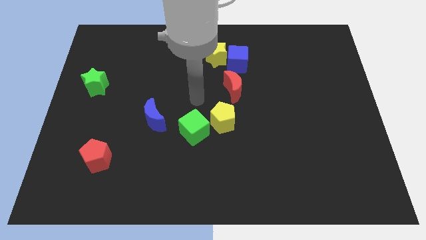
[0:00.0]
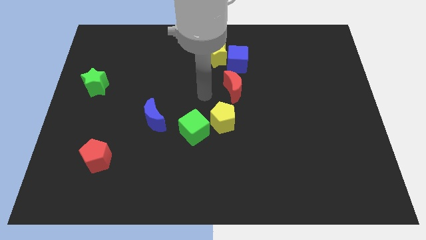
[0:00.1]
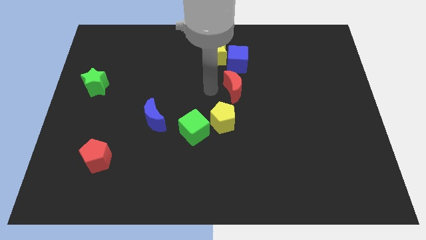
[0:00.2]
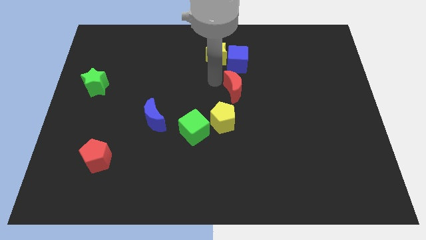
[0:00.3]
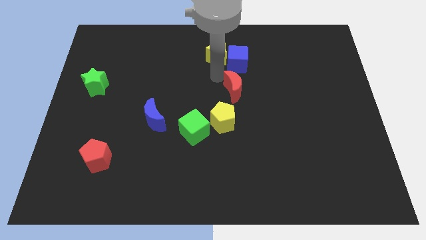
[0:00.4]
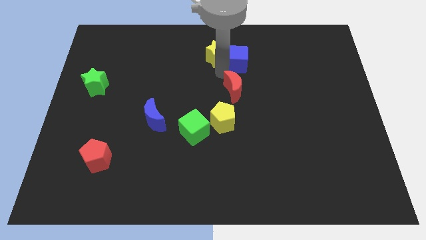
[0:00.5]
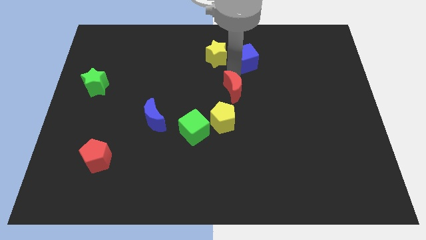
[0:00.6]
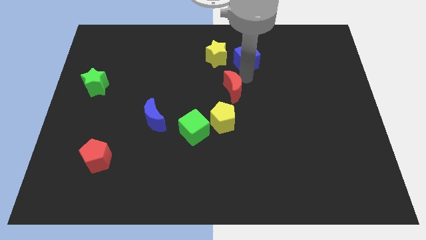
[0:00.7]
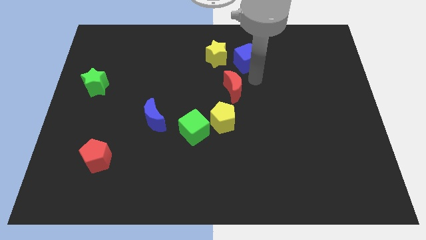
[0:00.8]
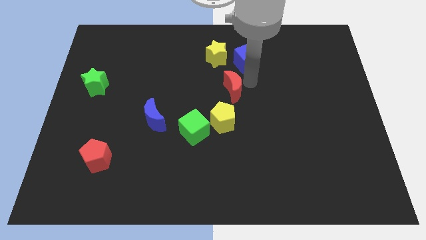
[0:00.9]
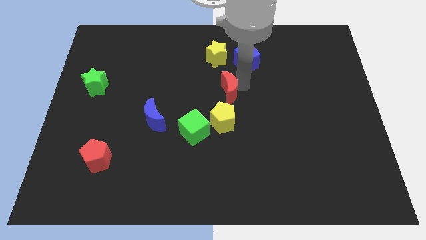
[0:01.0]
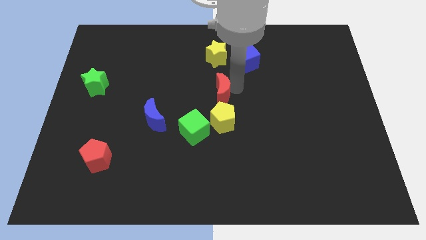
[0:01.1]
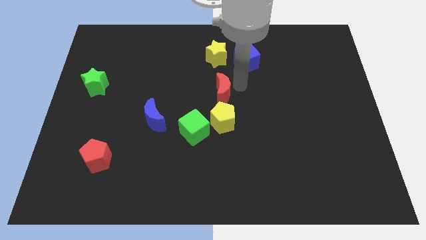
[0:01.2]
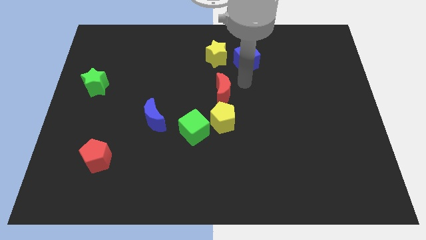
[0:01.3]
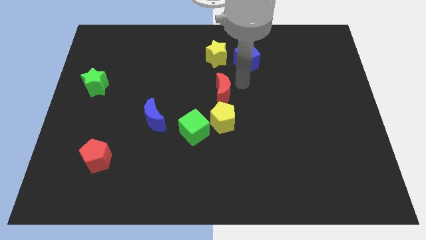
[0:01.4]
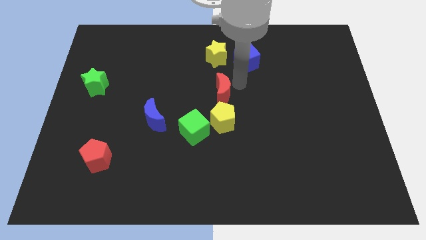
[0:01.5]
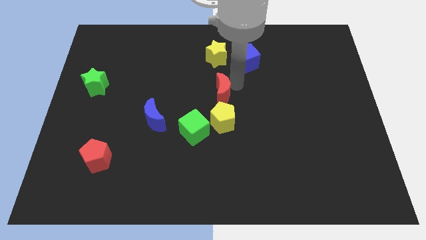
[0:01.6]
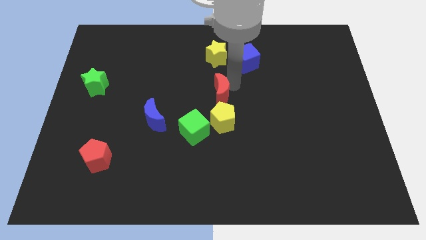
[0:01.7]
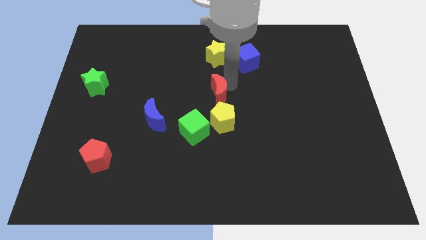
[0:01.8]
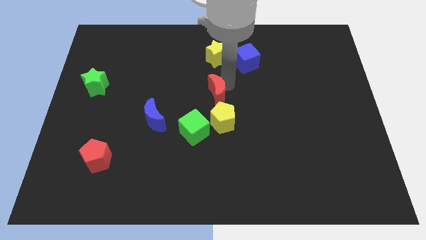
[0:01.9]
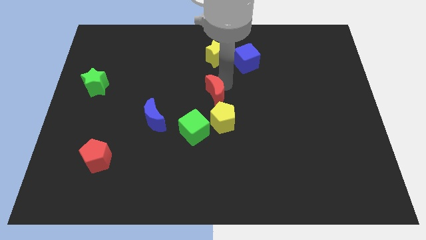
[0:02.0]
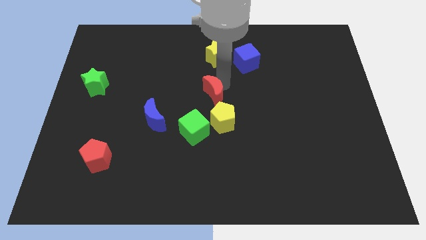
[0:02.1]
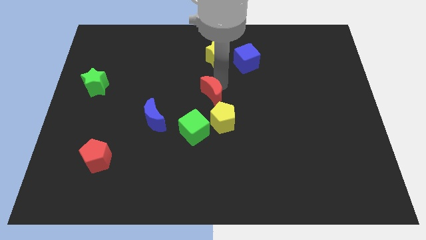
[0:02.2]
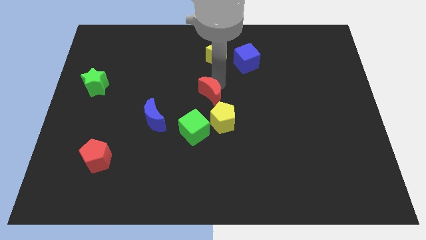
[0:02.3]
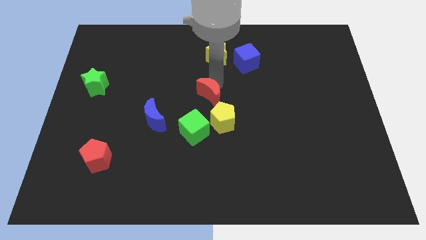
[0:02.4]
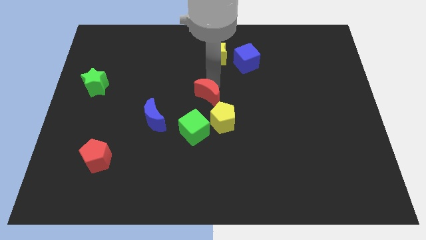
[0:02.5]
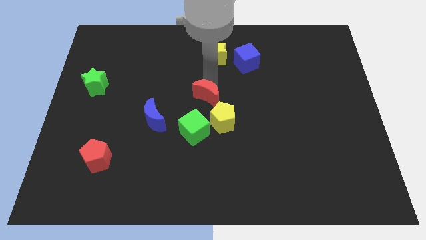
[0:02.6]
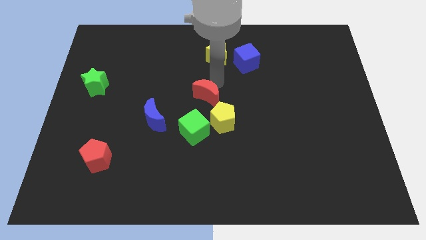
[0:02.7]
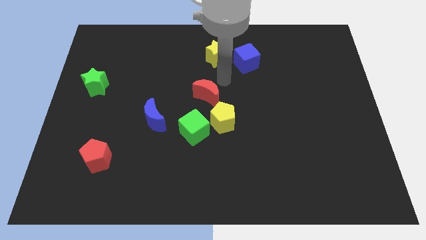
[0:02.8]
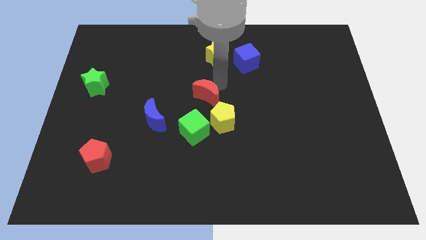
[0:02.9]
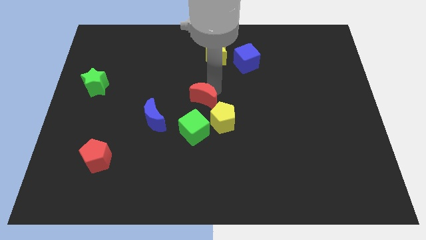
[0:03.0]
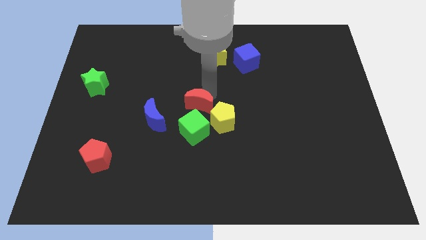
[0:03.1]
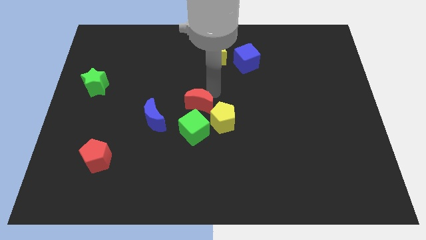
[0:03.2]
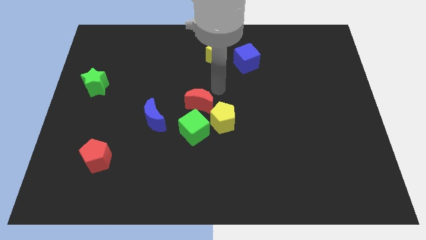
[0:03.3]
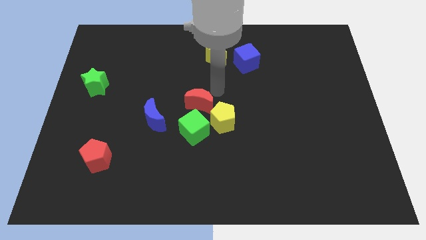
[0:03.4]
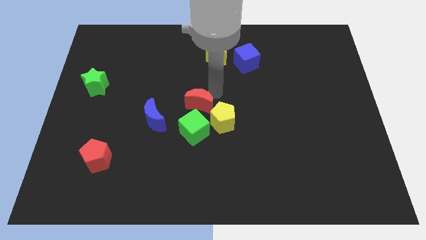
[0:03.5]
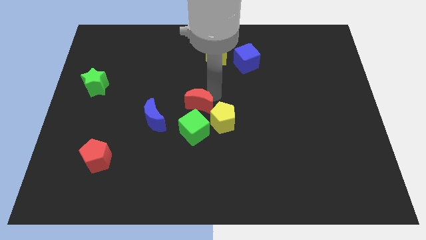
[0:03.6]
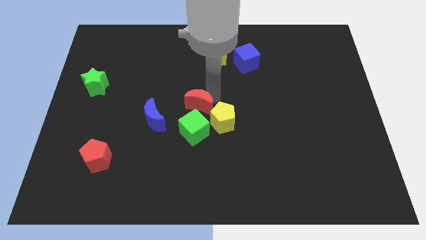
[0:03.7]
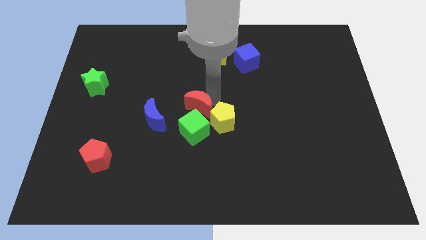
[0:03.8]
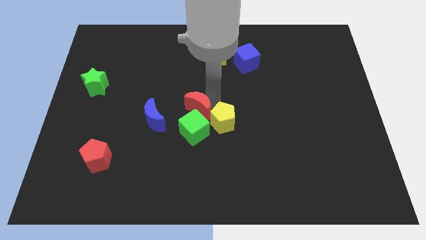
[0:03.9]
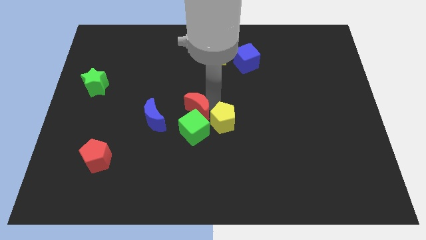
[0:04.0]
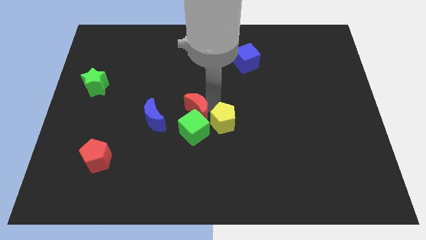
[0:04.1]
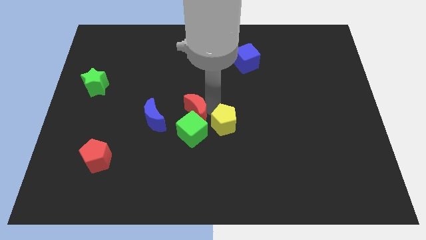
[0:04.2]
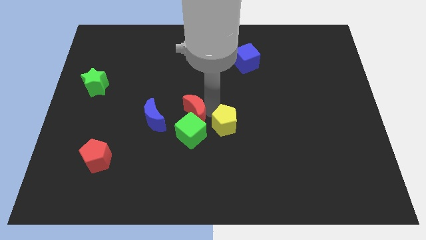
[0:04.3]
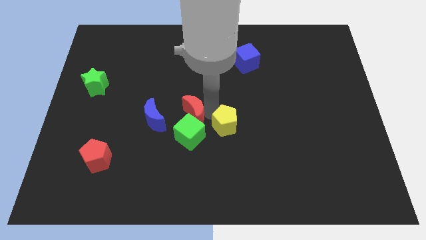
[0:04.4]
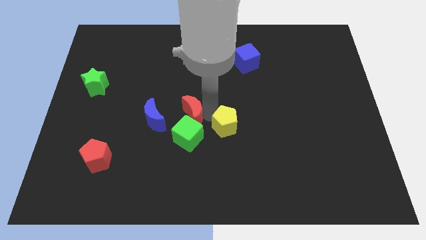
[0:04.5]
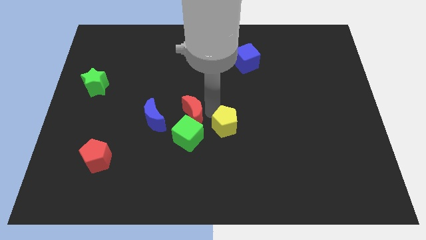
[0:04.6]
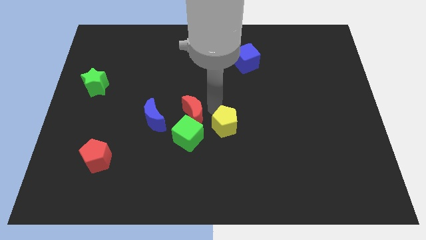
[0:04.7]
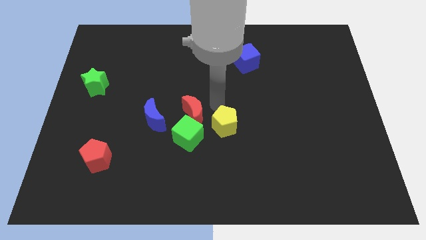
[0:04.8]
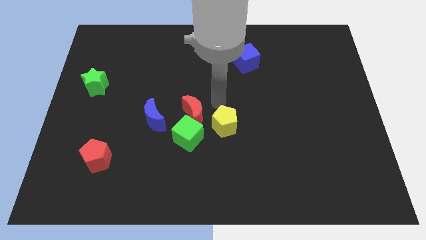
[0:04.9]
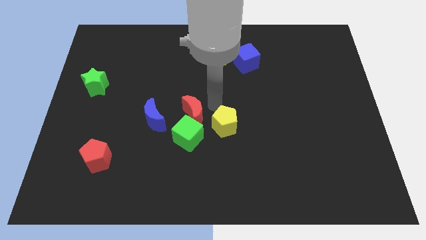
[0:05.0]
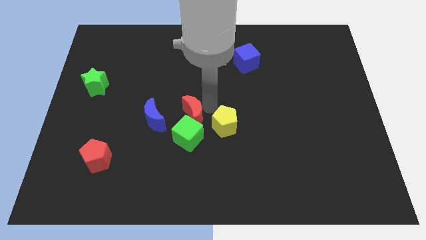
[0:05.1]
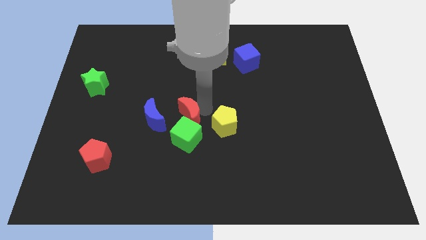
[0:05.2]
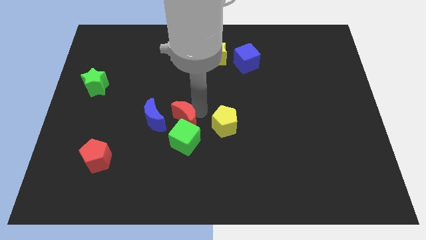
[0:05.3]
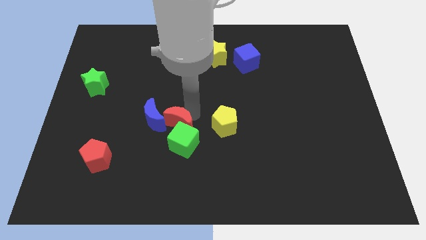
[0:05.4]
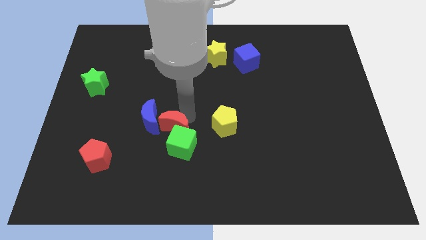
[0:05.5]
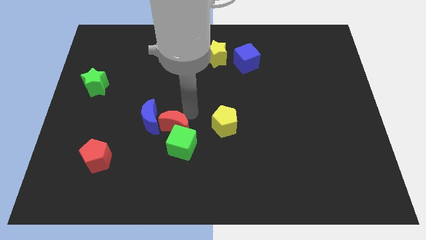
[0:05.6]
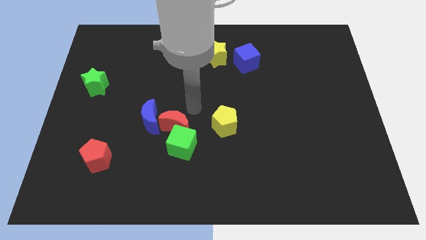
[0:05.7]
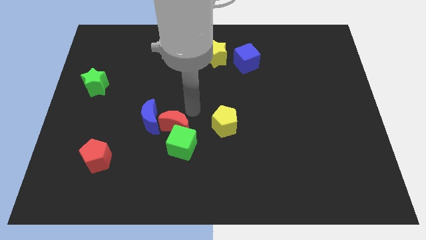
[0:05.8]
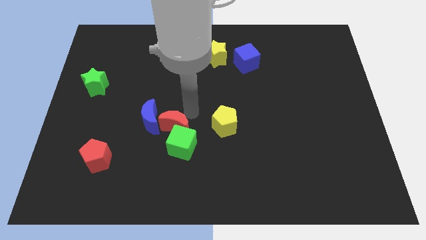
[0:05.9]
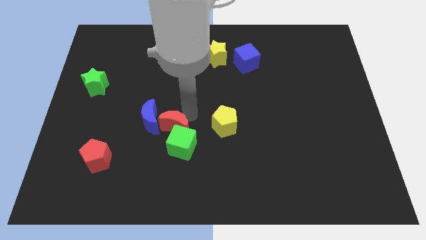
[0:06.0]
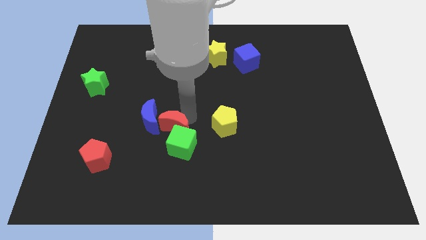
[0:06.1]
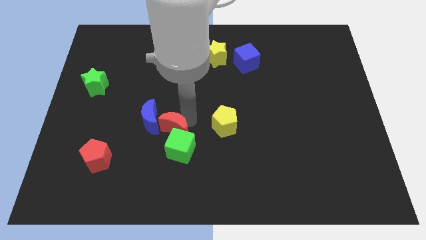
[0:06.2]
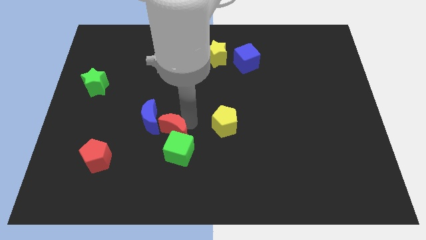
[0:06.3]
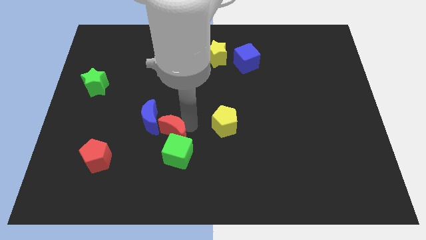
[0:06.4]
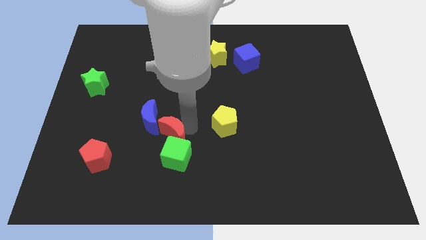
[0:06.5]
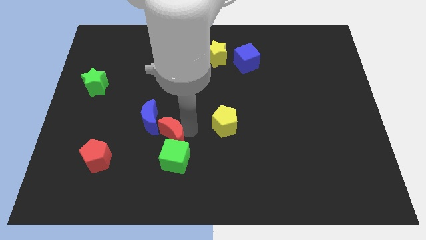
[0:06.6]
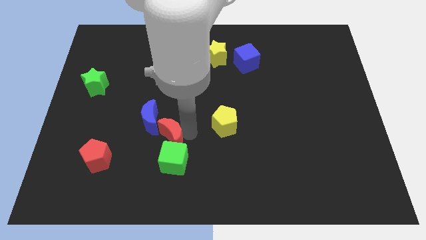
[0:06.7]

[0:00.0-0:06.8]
push the red moon down and to the left diagonally

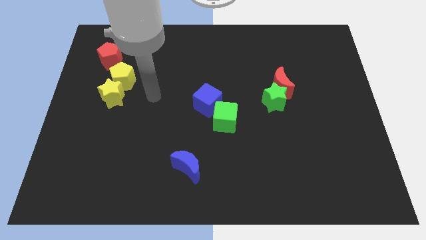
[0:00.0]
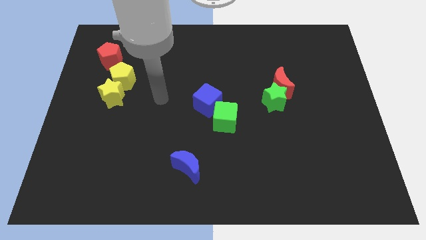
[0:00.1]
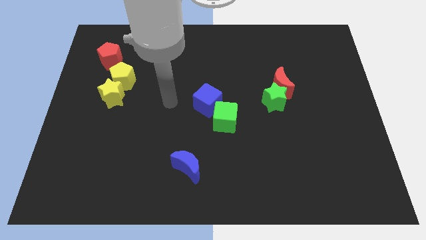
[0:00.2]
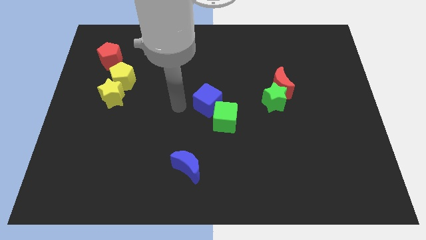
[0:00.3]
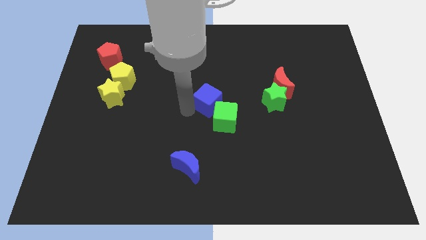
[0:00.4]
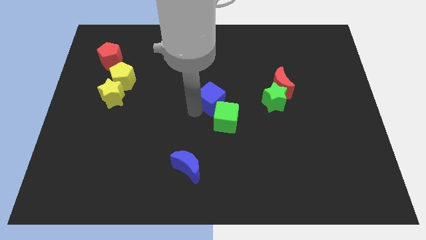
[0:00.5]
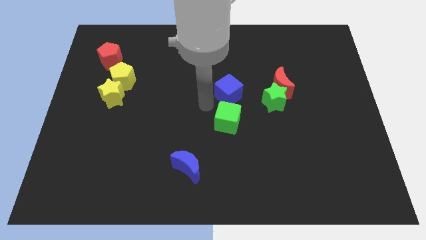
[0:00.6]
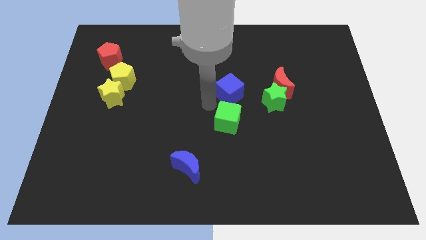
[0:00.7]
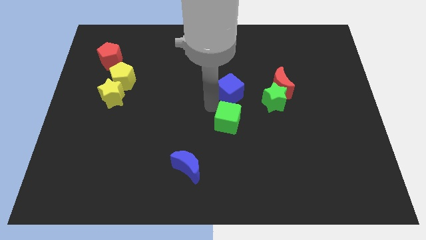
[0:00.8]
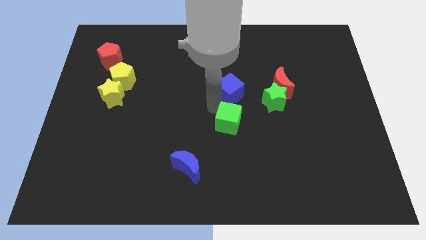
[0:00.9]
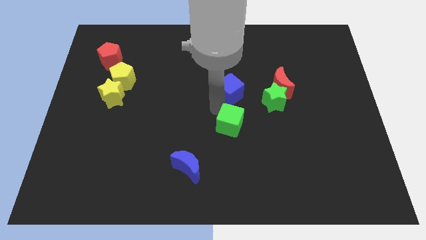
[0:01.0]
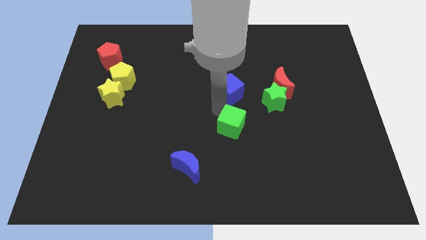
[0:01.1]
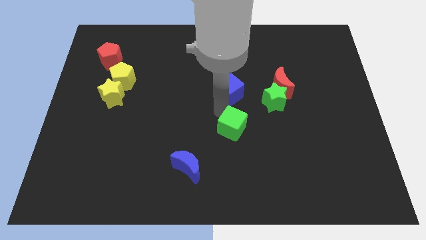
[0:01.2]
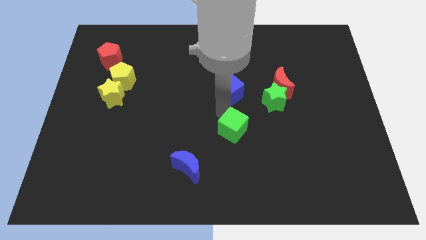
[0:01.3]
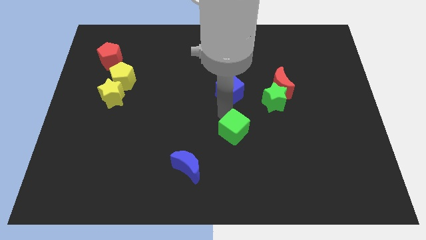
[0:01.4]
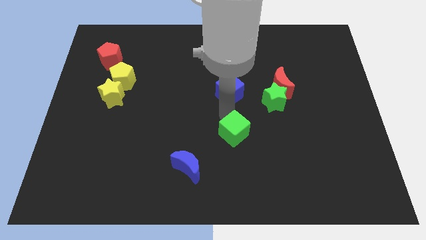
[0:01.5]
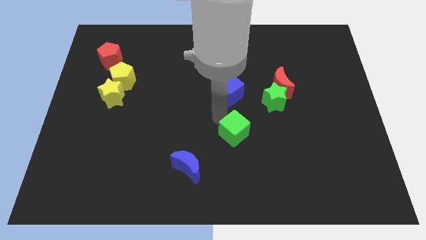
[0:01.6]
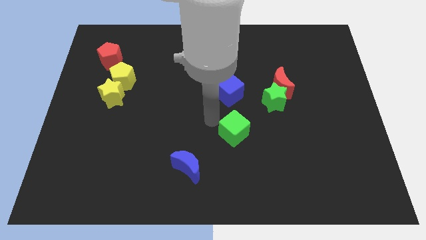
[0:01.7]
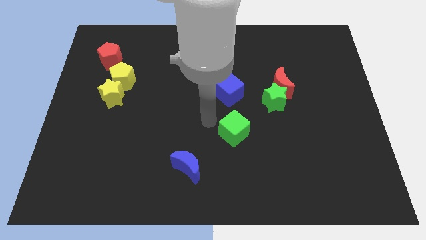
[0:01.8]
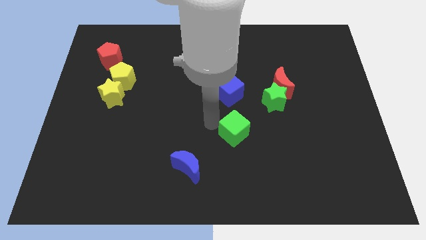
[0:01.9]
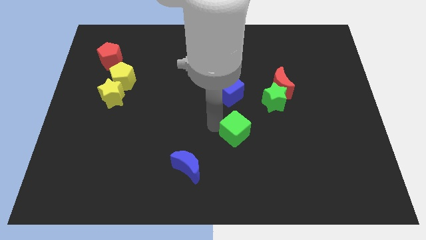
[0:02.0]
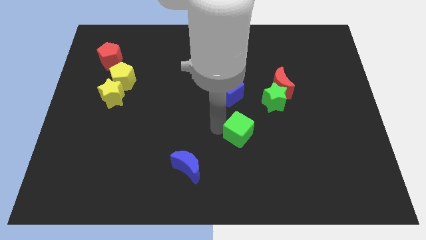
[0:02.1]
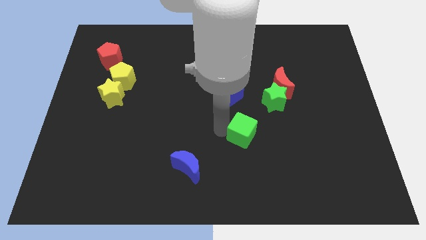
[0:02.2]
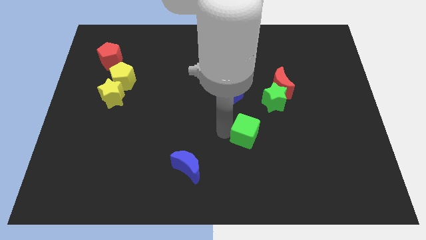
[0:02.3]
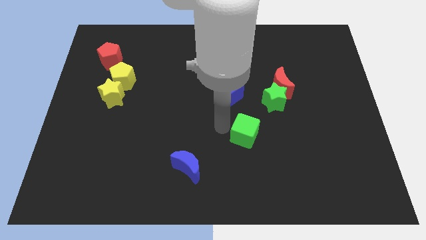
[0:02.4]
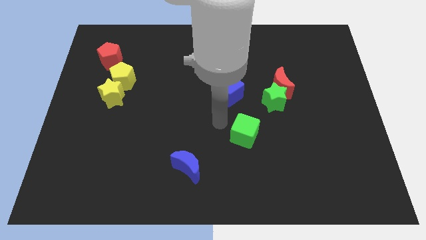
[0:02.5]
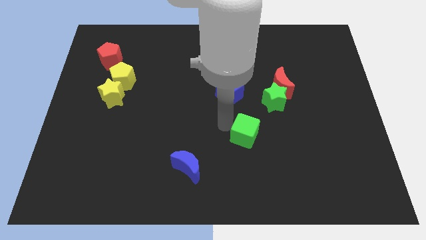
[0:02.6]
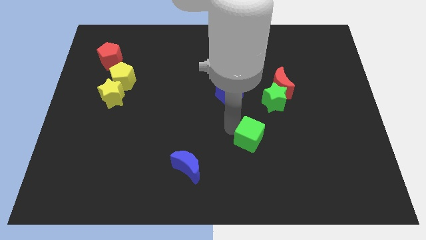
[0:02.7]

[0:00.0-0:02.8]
push the green cube somewhat downwards and to the right
